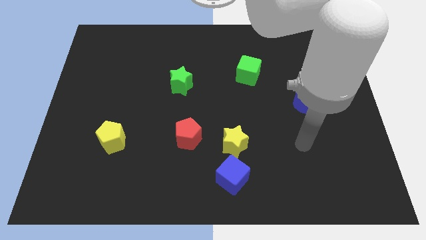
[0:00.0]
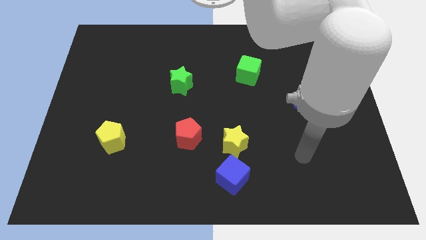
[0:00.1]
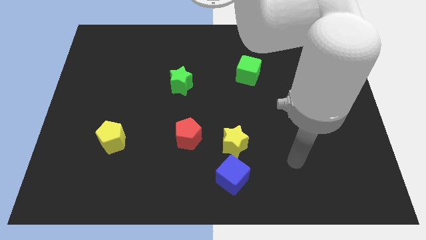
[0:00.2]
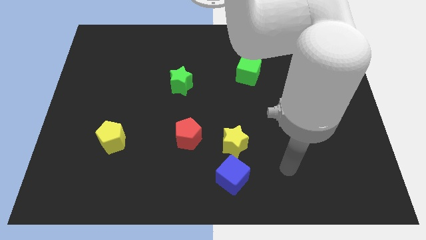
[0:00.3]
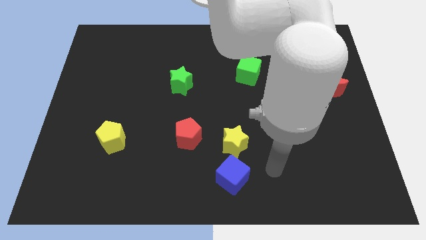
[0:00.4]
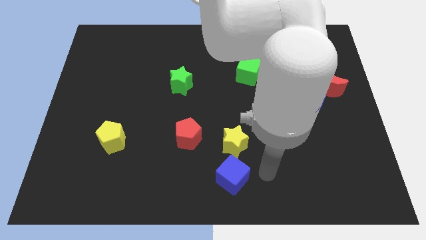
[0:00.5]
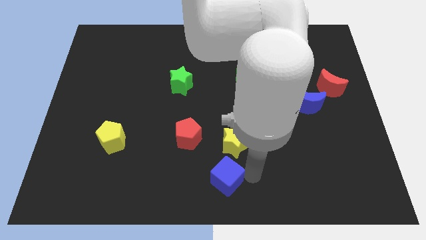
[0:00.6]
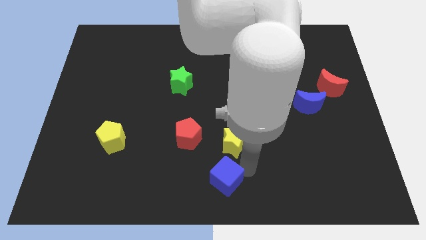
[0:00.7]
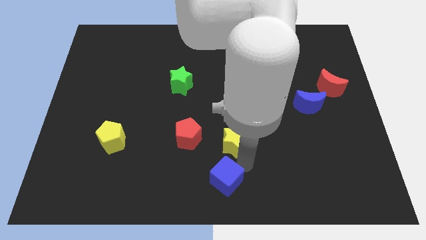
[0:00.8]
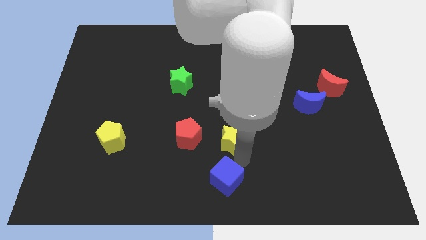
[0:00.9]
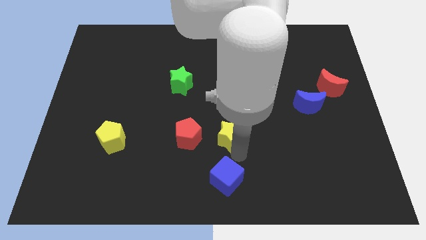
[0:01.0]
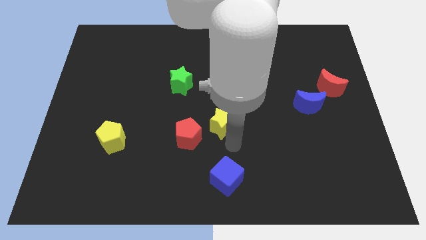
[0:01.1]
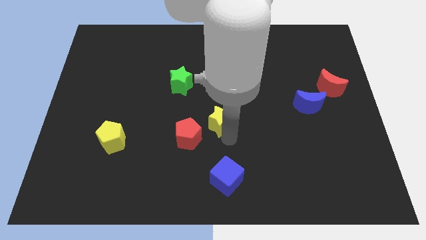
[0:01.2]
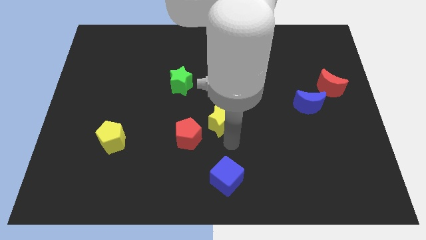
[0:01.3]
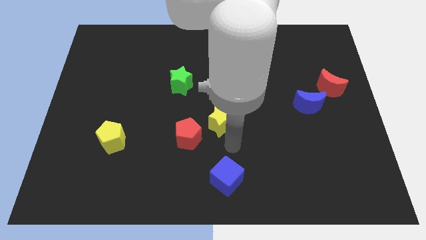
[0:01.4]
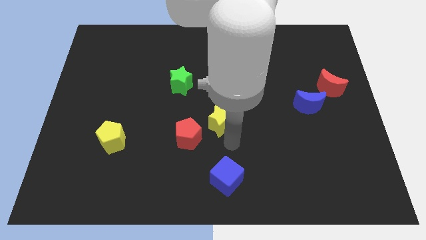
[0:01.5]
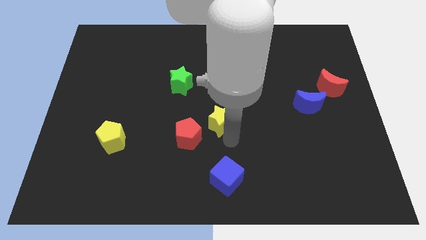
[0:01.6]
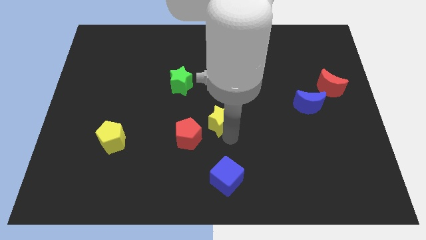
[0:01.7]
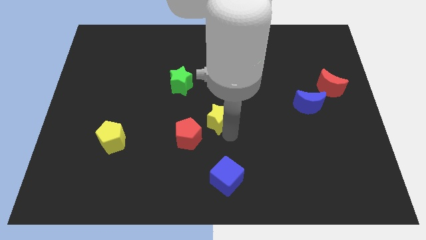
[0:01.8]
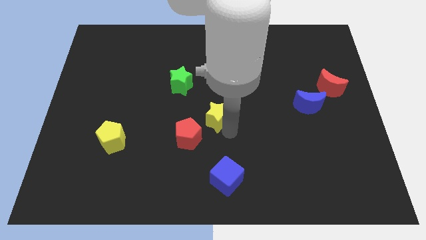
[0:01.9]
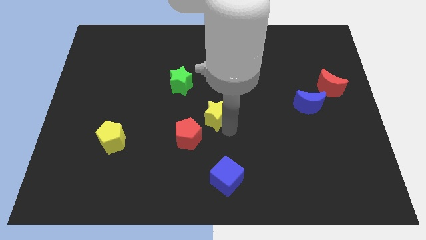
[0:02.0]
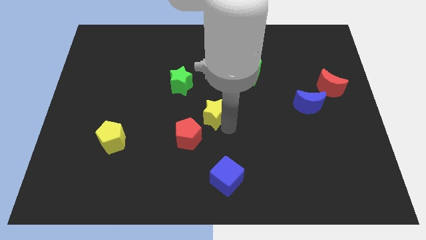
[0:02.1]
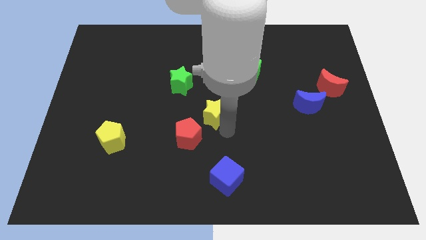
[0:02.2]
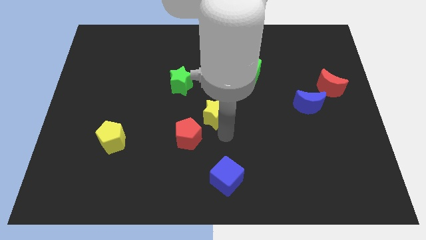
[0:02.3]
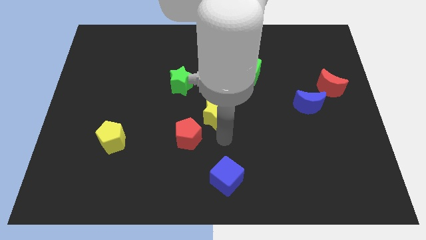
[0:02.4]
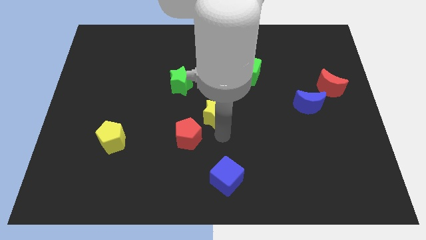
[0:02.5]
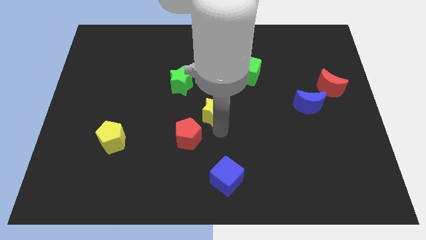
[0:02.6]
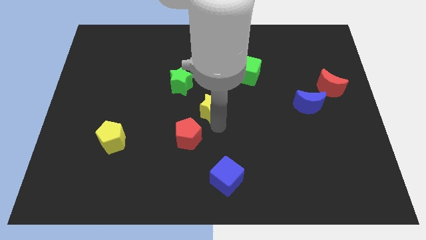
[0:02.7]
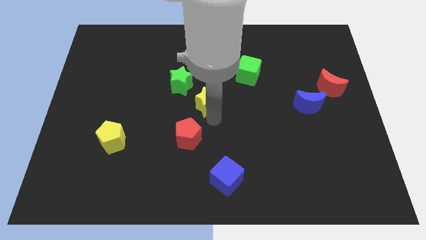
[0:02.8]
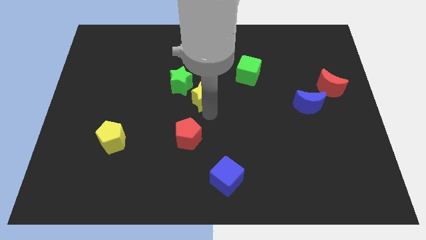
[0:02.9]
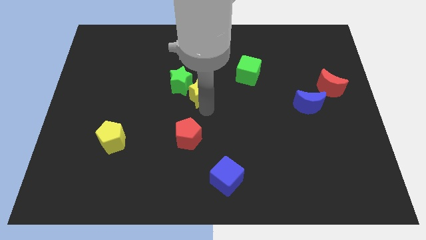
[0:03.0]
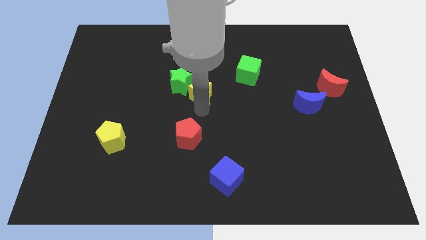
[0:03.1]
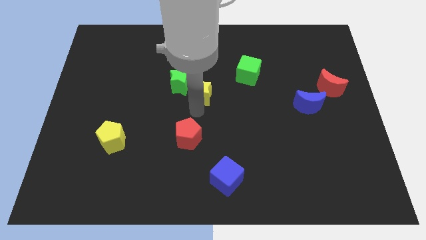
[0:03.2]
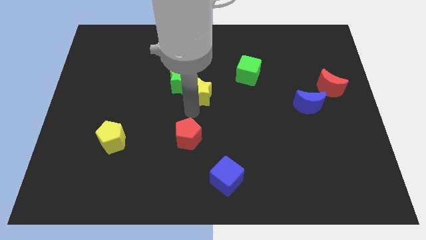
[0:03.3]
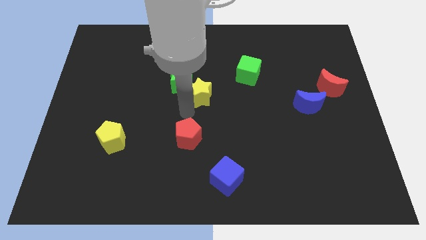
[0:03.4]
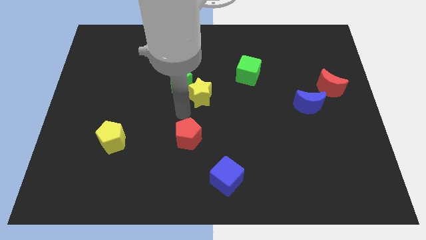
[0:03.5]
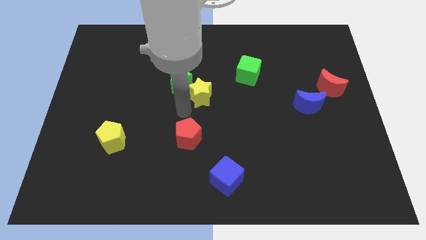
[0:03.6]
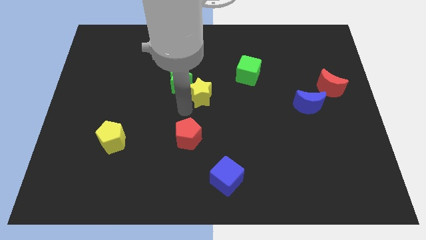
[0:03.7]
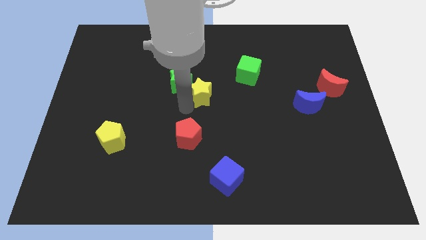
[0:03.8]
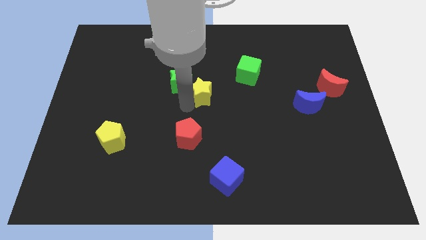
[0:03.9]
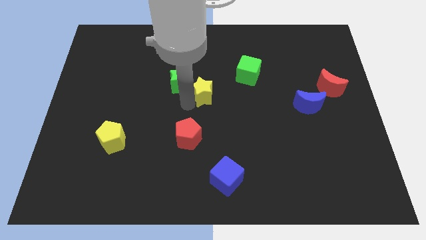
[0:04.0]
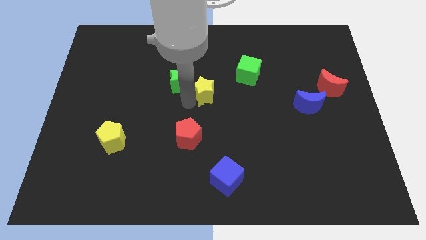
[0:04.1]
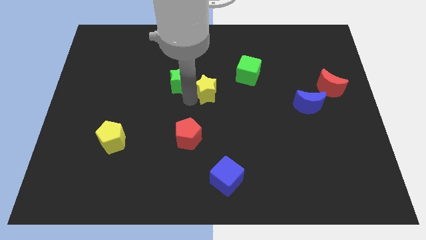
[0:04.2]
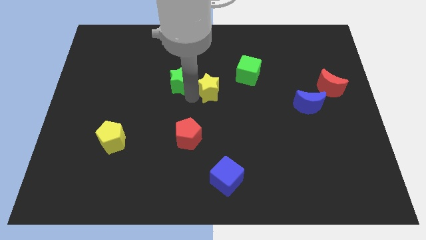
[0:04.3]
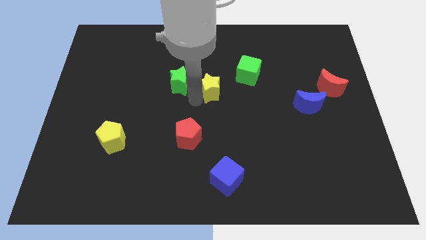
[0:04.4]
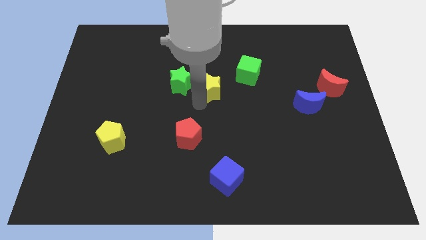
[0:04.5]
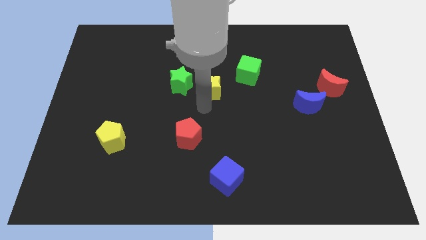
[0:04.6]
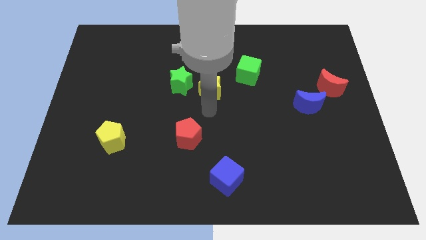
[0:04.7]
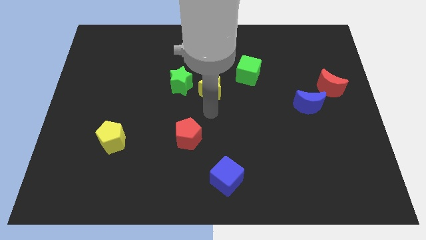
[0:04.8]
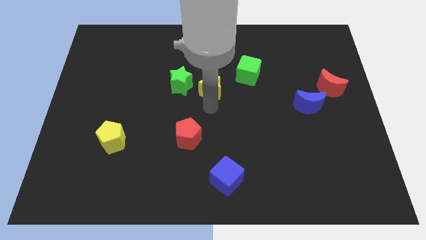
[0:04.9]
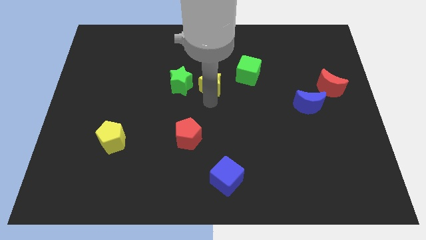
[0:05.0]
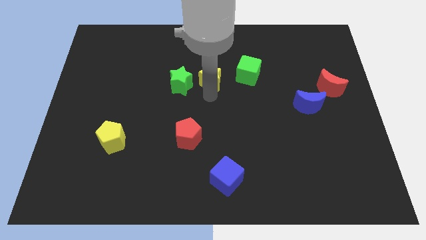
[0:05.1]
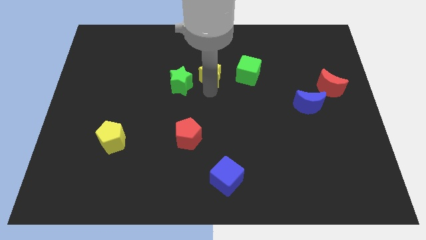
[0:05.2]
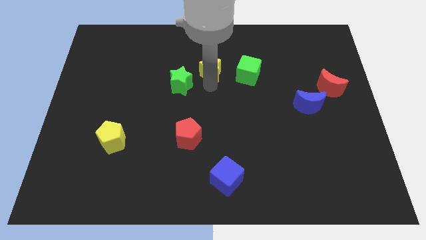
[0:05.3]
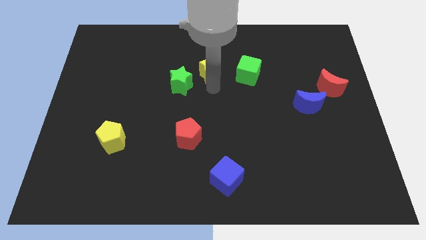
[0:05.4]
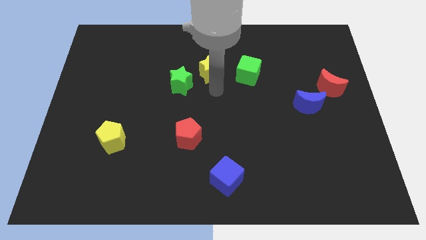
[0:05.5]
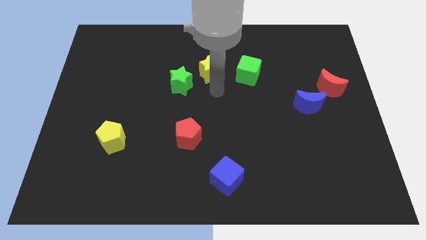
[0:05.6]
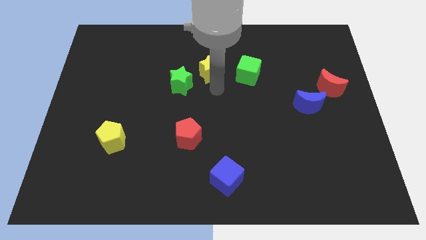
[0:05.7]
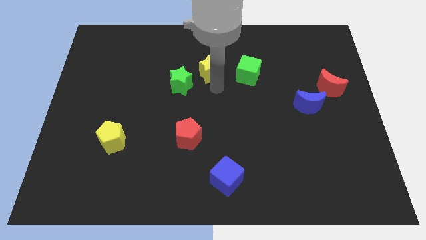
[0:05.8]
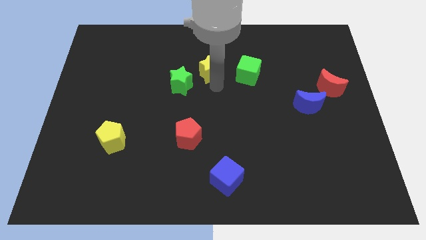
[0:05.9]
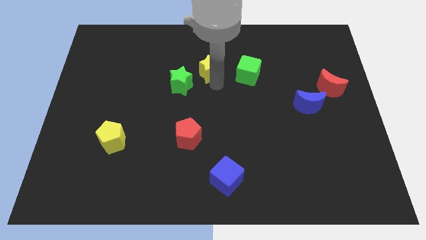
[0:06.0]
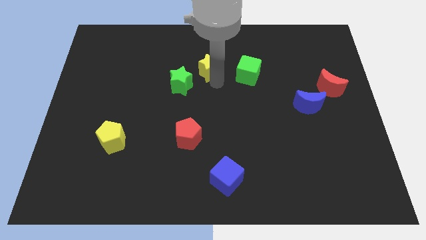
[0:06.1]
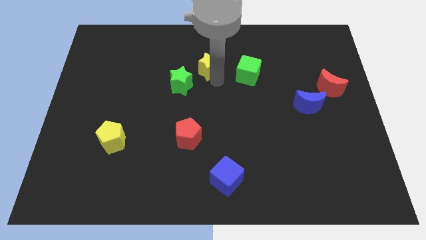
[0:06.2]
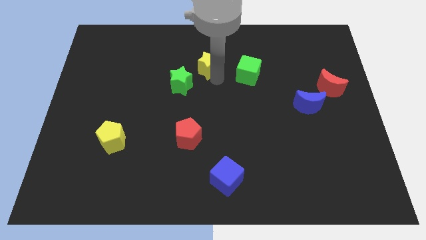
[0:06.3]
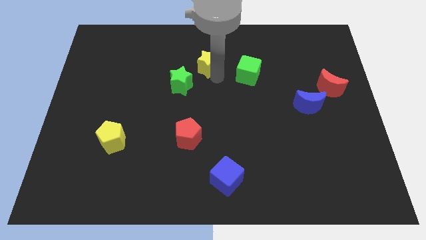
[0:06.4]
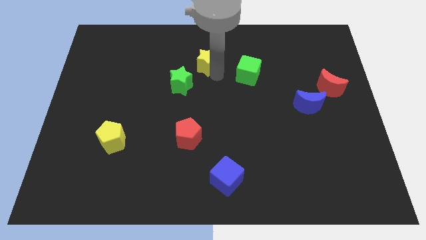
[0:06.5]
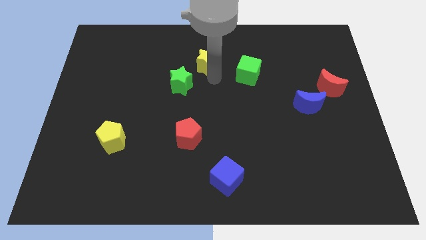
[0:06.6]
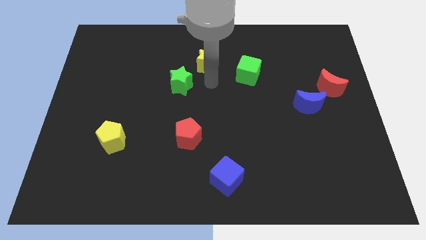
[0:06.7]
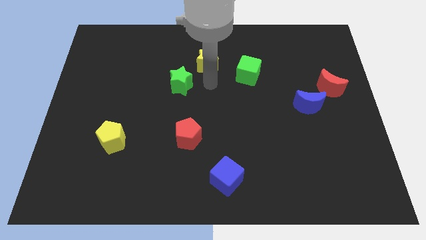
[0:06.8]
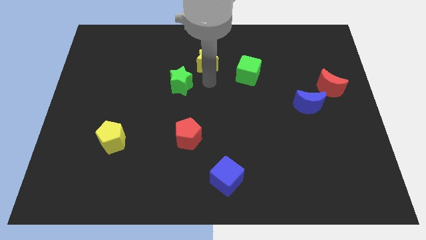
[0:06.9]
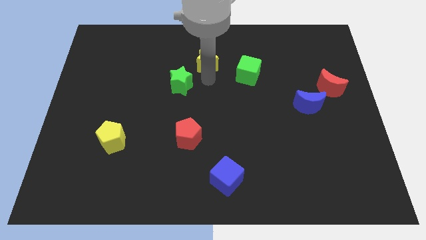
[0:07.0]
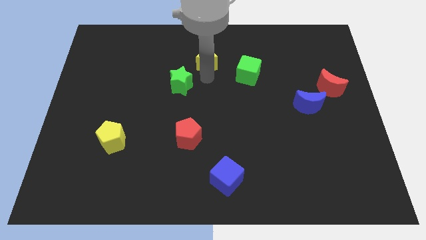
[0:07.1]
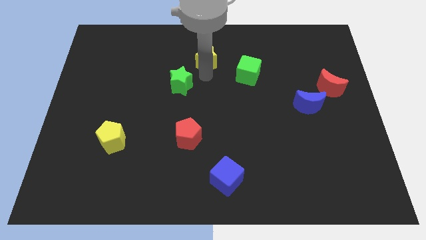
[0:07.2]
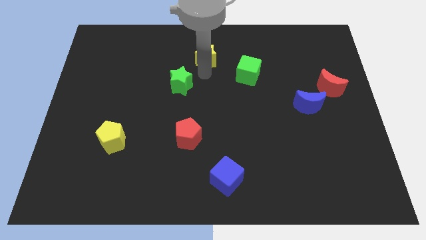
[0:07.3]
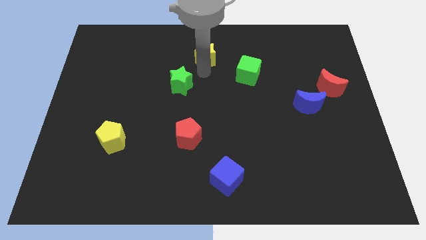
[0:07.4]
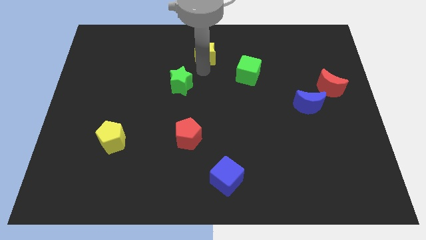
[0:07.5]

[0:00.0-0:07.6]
put the yellow star to the top side
